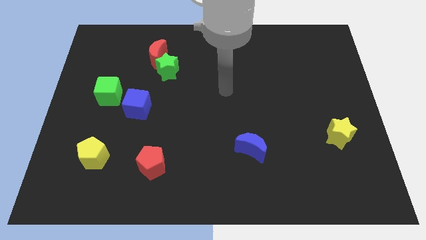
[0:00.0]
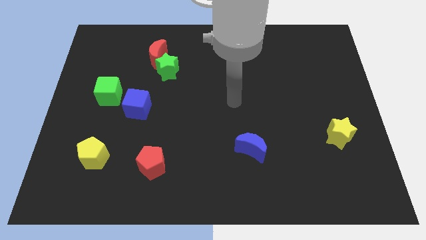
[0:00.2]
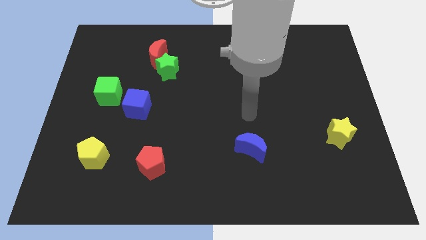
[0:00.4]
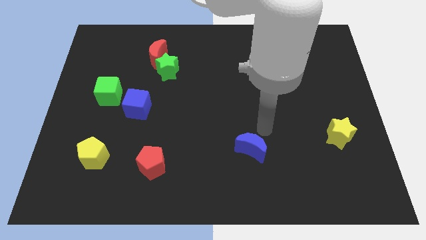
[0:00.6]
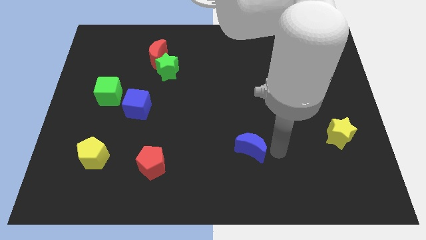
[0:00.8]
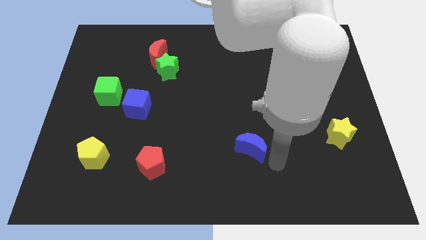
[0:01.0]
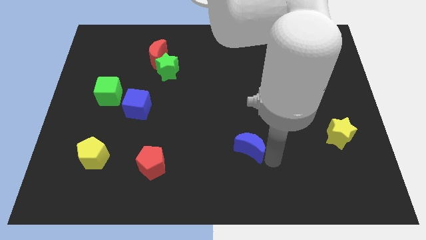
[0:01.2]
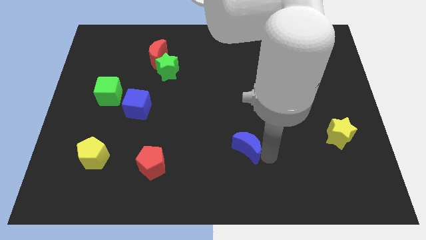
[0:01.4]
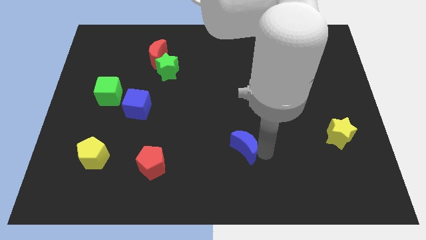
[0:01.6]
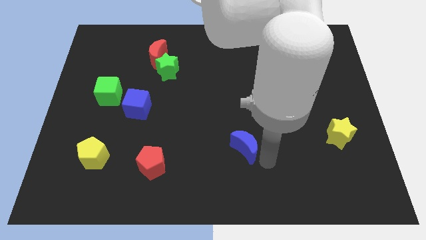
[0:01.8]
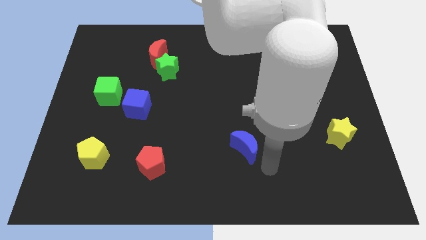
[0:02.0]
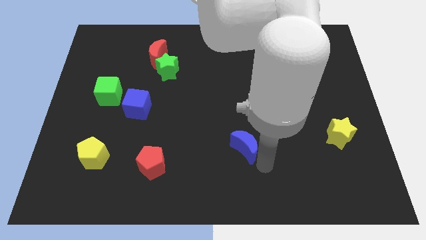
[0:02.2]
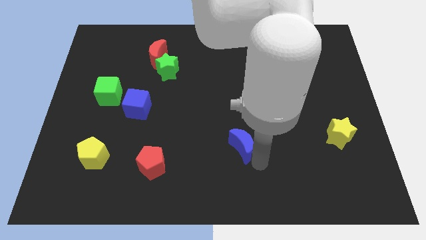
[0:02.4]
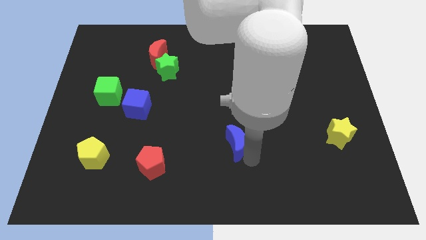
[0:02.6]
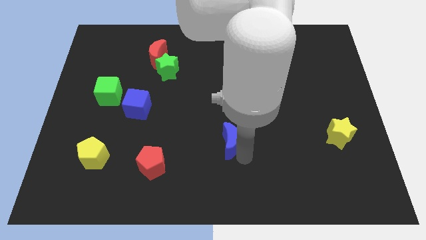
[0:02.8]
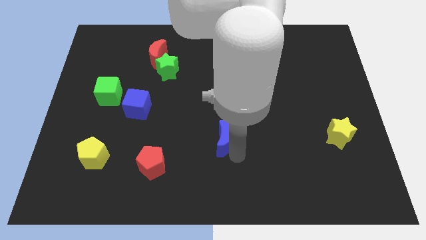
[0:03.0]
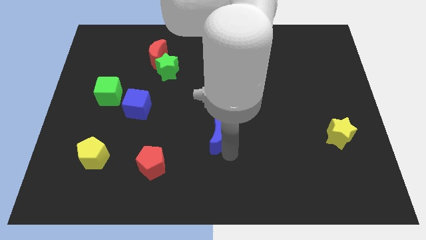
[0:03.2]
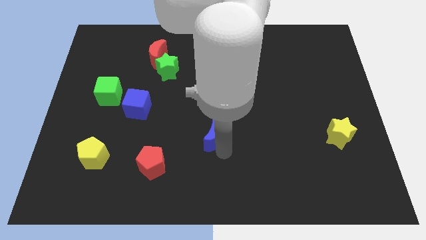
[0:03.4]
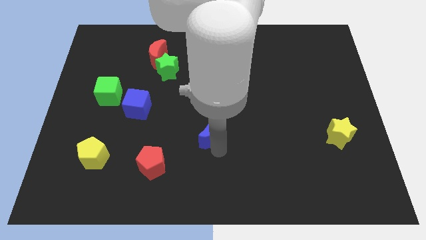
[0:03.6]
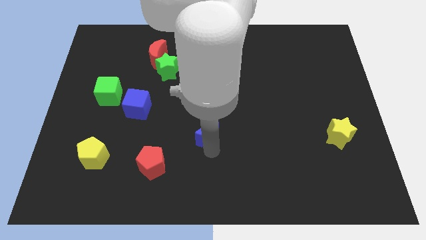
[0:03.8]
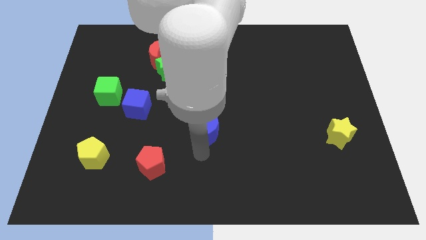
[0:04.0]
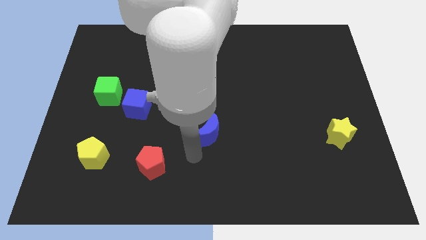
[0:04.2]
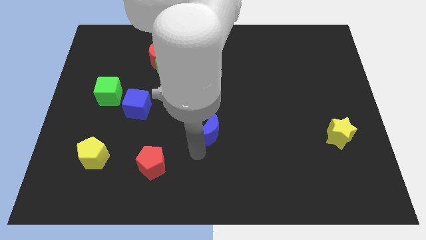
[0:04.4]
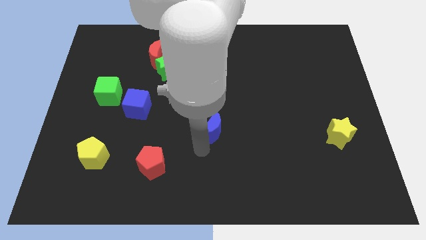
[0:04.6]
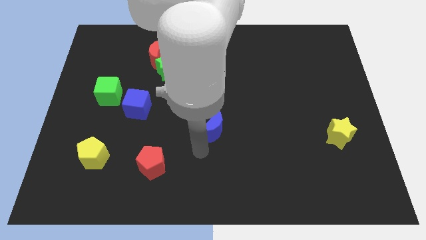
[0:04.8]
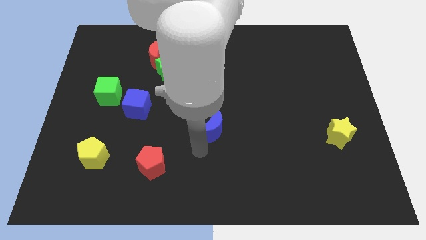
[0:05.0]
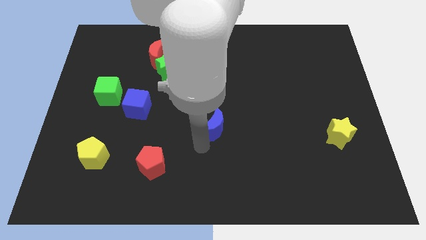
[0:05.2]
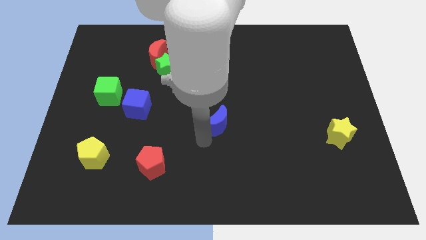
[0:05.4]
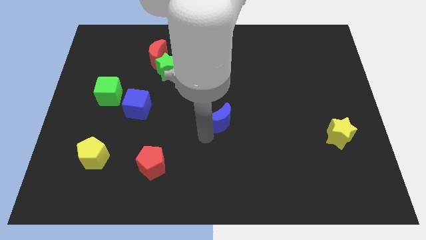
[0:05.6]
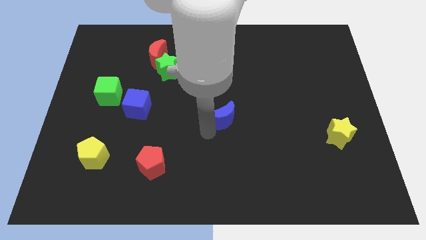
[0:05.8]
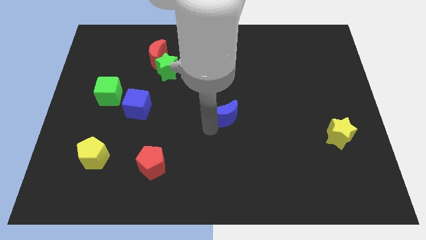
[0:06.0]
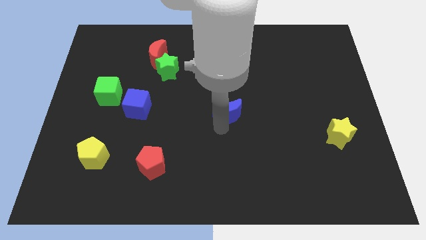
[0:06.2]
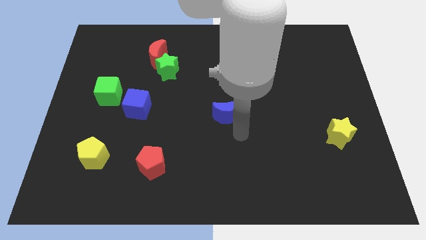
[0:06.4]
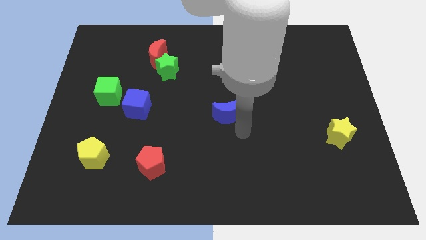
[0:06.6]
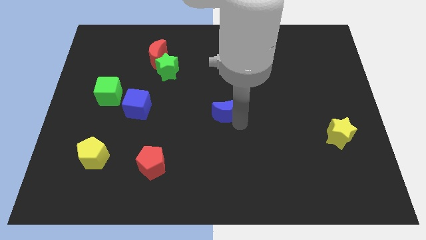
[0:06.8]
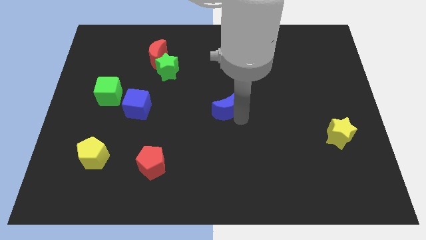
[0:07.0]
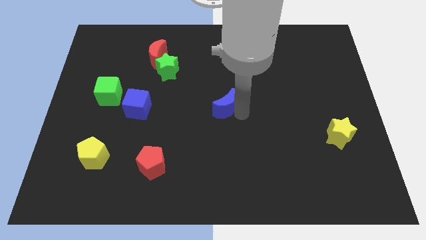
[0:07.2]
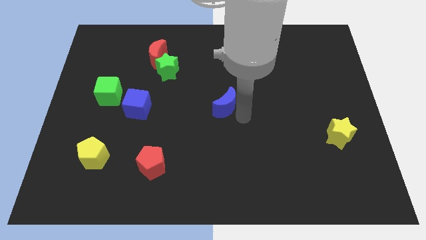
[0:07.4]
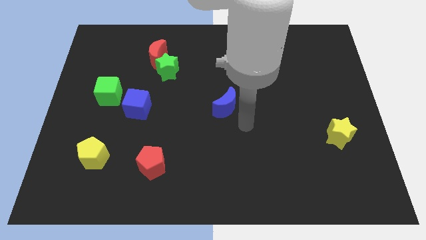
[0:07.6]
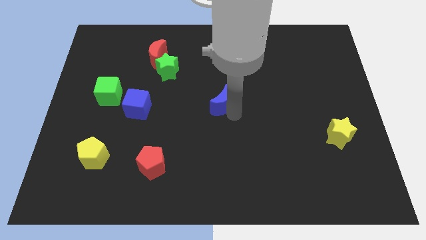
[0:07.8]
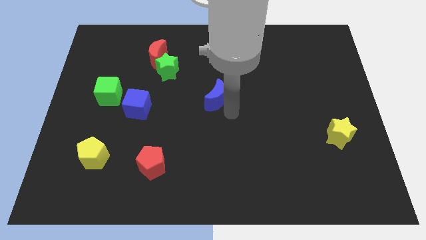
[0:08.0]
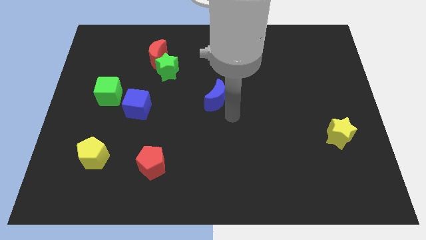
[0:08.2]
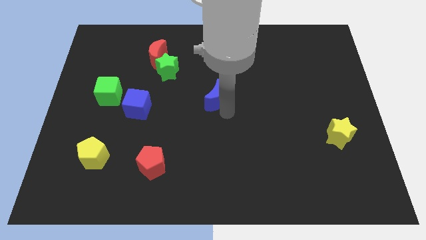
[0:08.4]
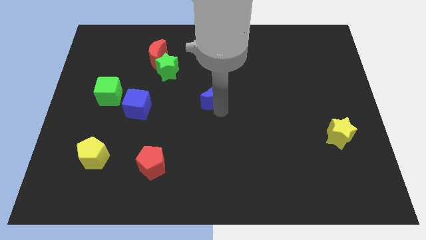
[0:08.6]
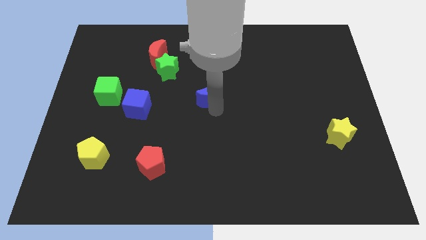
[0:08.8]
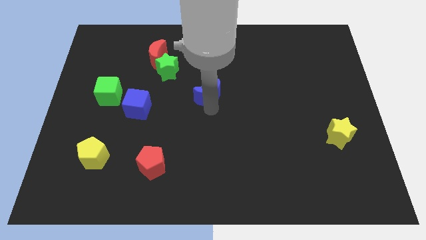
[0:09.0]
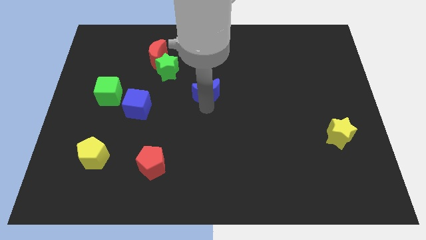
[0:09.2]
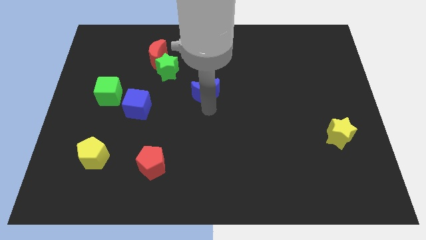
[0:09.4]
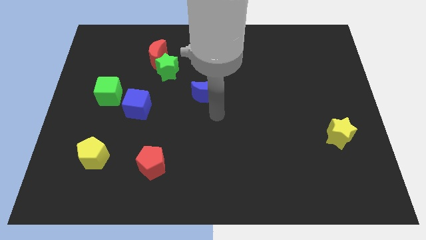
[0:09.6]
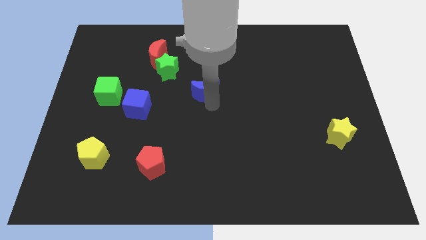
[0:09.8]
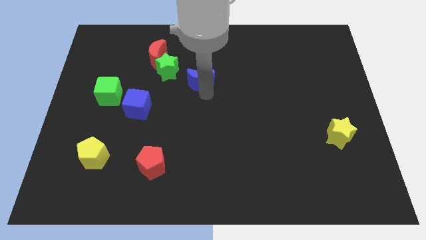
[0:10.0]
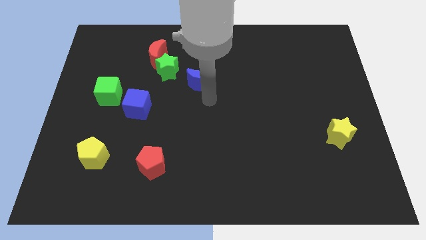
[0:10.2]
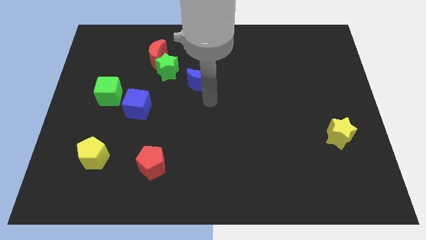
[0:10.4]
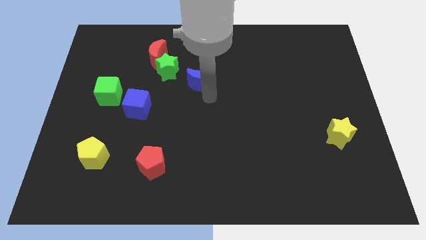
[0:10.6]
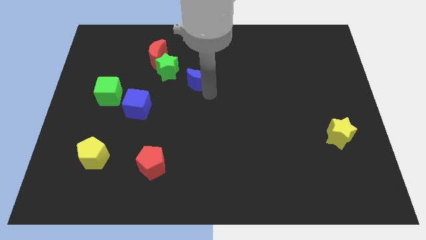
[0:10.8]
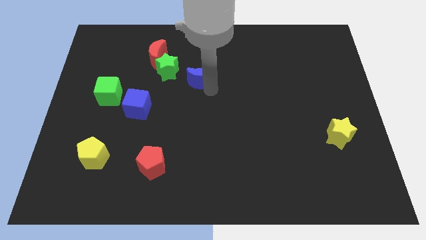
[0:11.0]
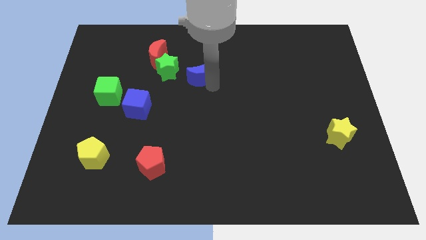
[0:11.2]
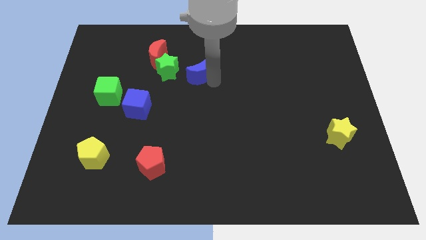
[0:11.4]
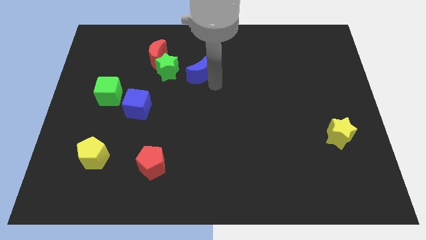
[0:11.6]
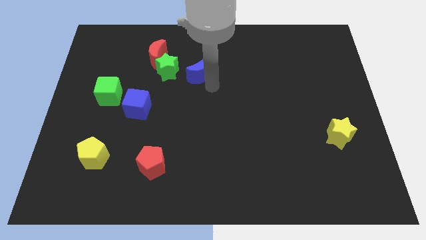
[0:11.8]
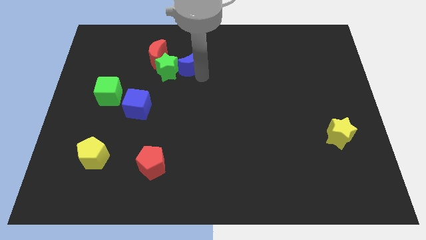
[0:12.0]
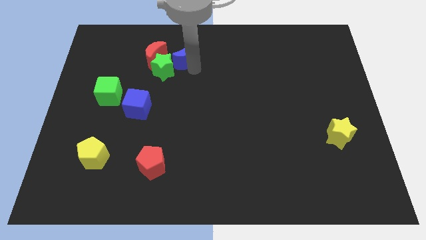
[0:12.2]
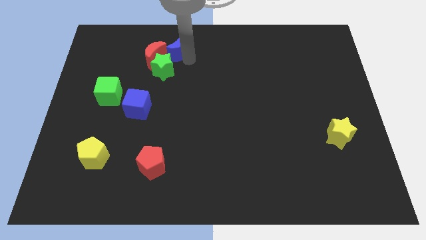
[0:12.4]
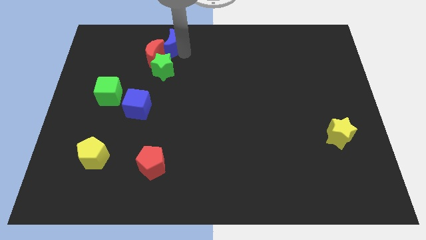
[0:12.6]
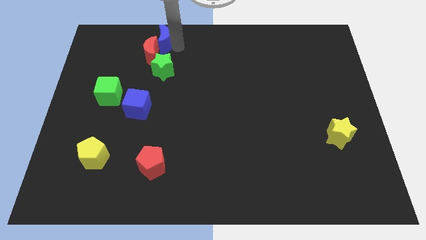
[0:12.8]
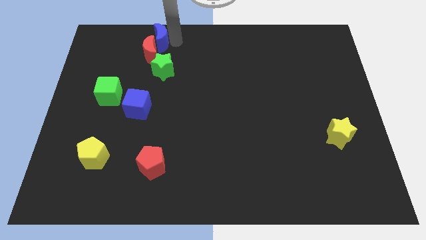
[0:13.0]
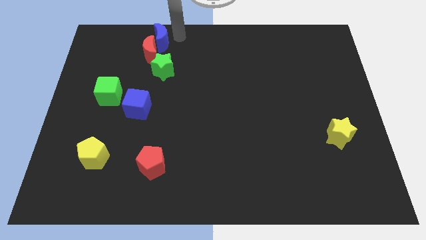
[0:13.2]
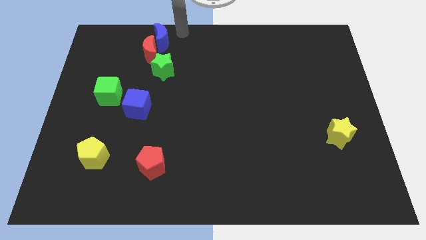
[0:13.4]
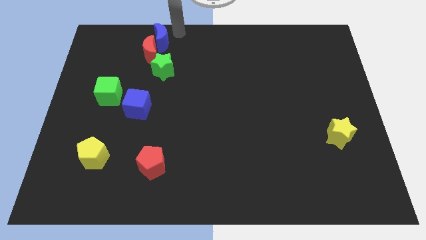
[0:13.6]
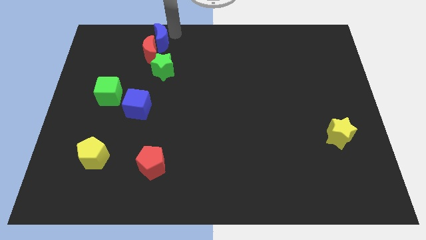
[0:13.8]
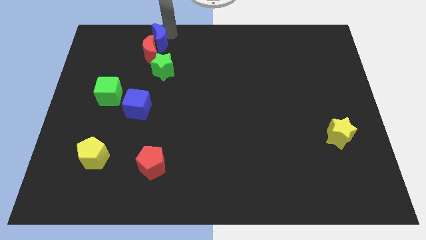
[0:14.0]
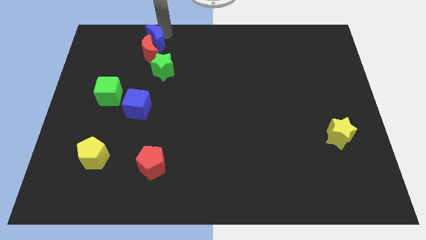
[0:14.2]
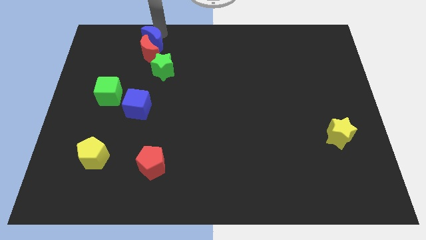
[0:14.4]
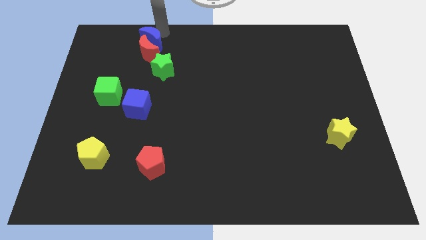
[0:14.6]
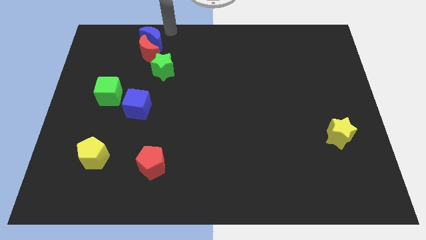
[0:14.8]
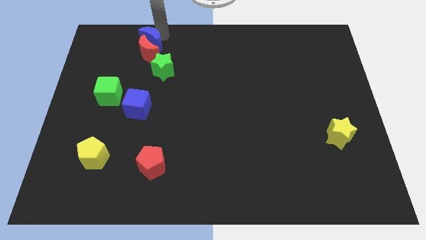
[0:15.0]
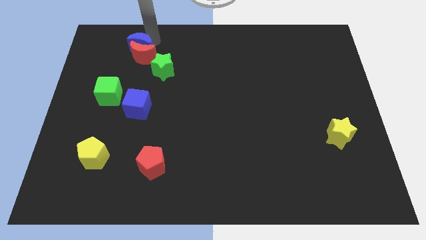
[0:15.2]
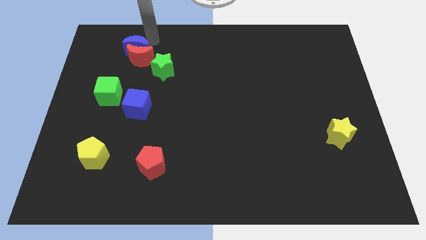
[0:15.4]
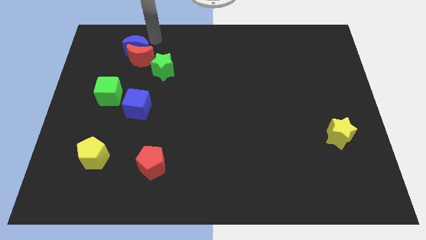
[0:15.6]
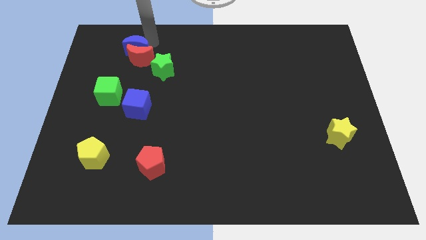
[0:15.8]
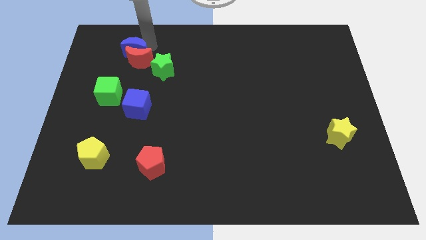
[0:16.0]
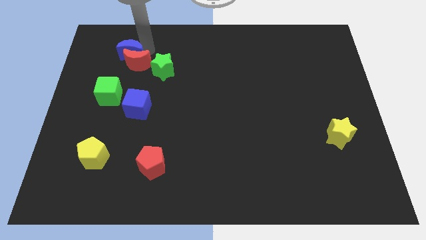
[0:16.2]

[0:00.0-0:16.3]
put the blue moon above the green cube
